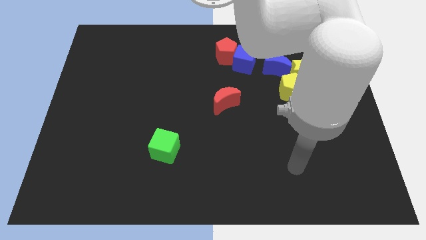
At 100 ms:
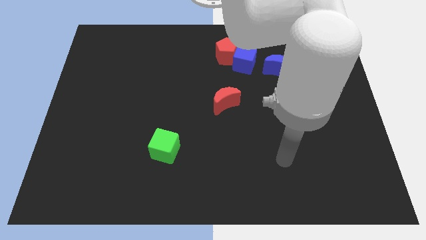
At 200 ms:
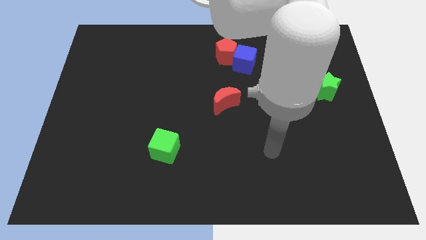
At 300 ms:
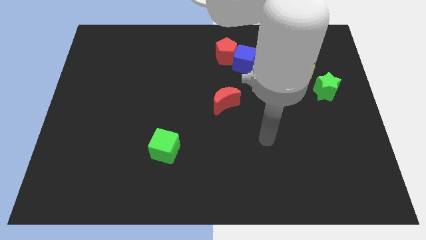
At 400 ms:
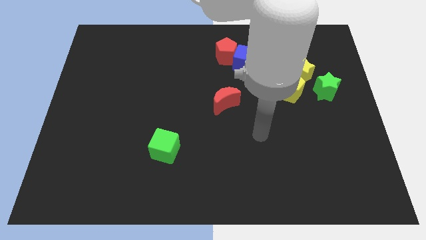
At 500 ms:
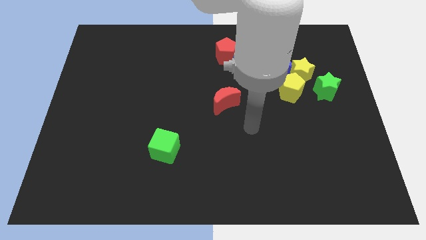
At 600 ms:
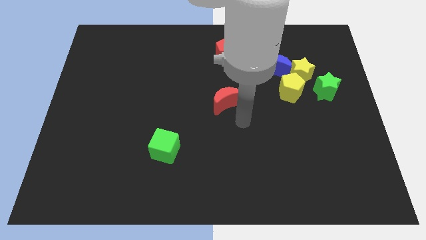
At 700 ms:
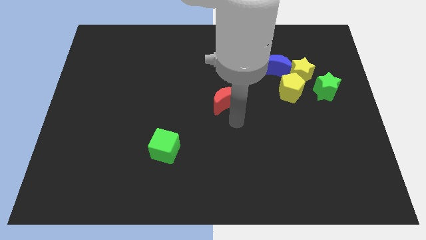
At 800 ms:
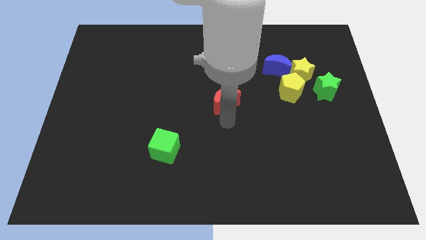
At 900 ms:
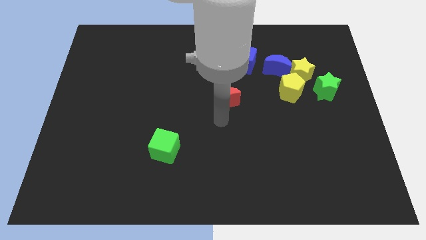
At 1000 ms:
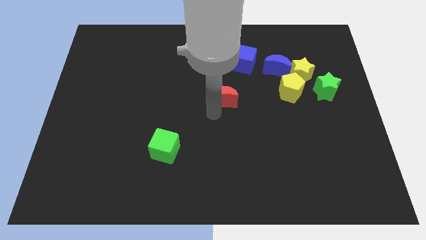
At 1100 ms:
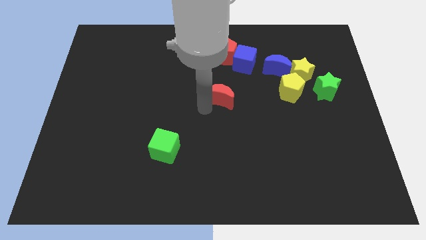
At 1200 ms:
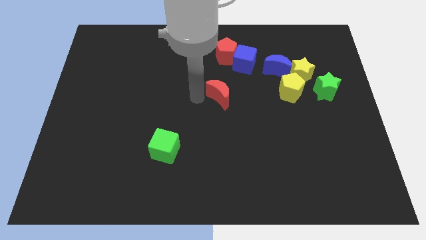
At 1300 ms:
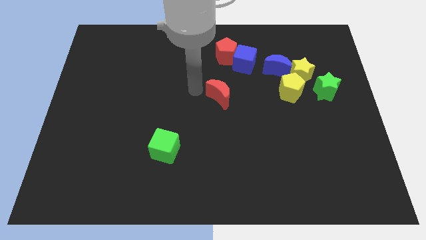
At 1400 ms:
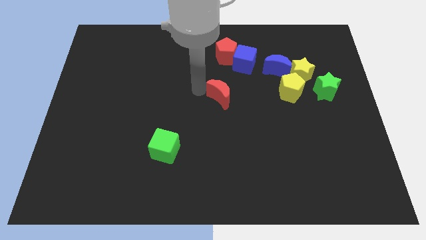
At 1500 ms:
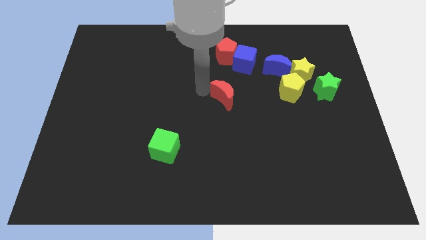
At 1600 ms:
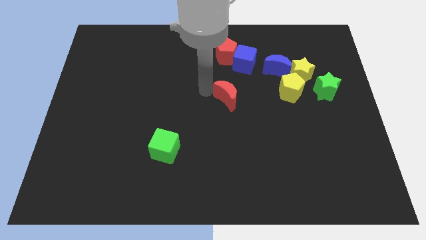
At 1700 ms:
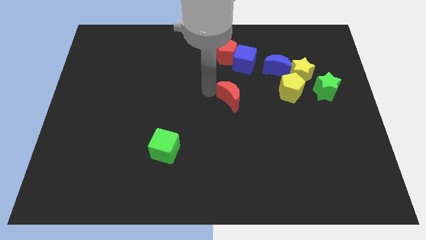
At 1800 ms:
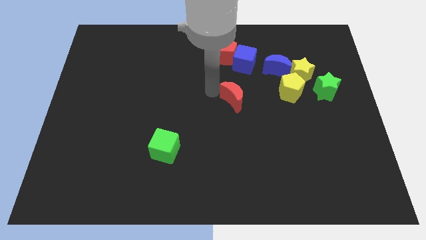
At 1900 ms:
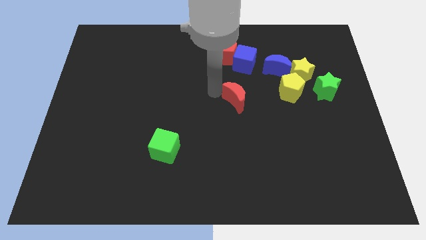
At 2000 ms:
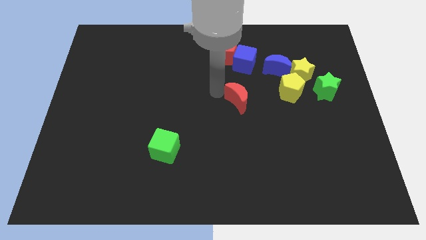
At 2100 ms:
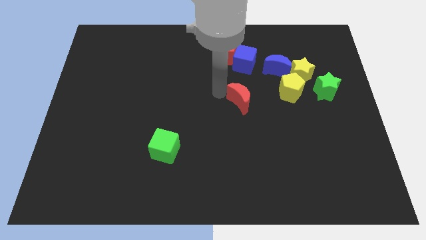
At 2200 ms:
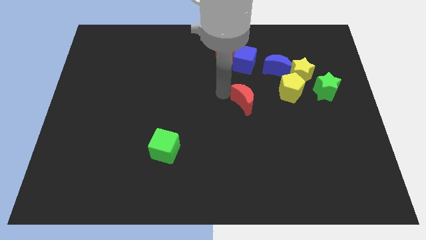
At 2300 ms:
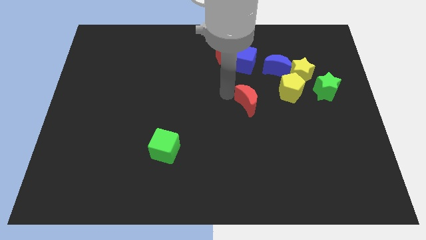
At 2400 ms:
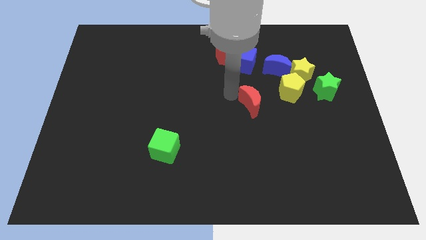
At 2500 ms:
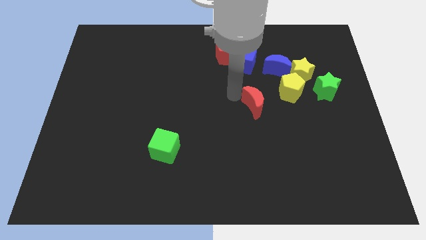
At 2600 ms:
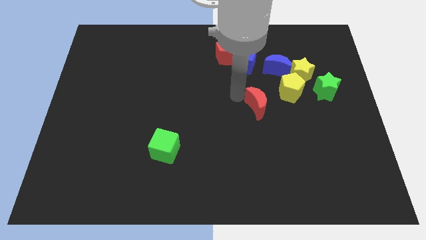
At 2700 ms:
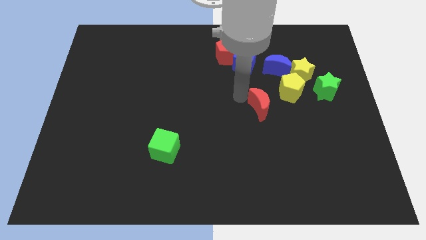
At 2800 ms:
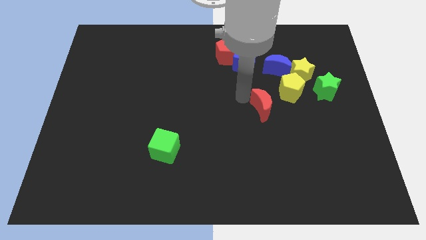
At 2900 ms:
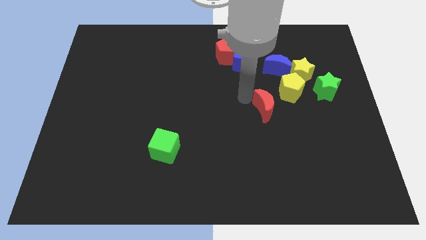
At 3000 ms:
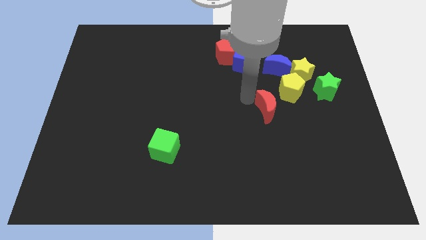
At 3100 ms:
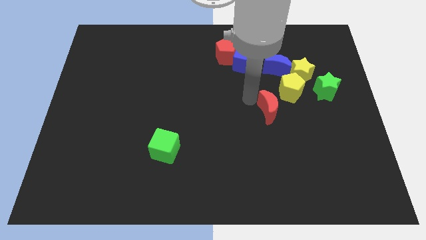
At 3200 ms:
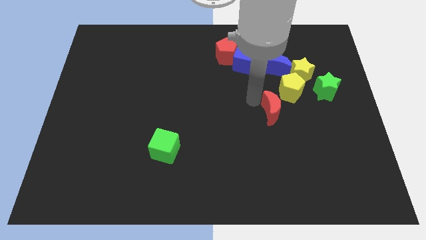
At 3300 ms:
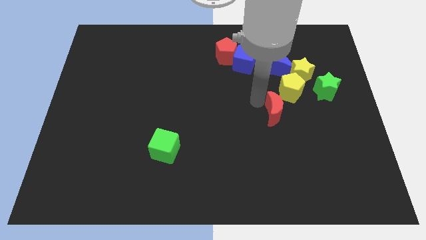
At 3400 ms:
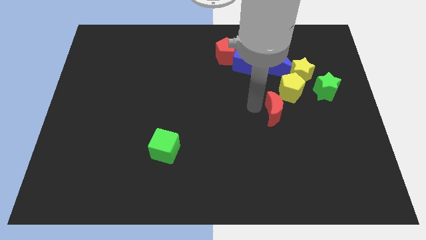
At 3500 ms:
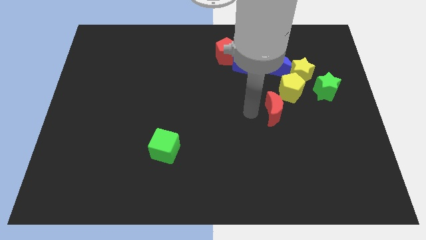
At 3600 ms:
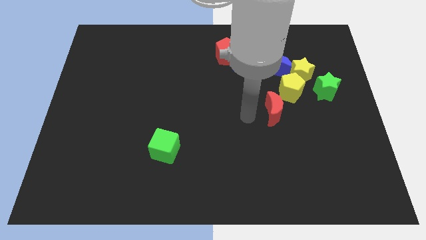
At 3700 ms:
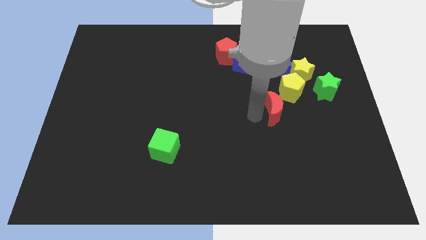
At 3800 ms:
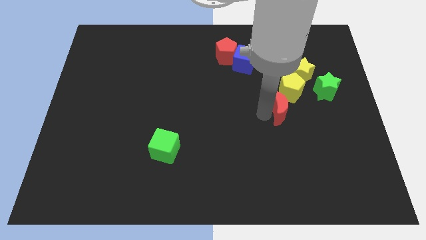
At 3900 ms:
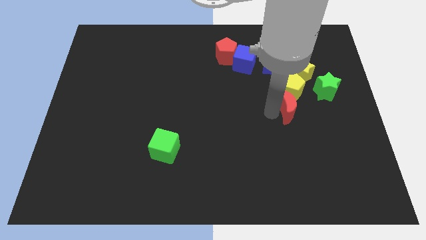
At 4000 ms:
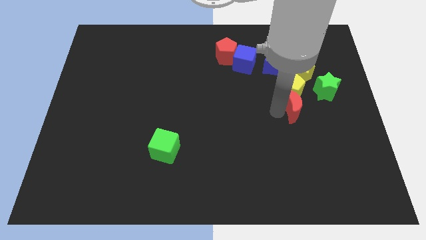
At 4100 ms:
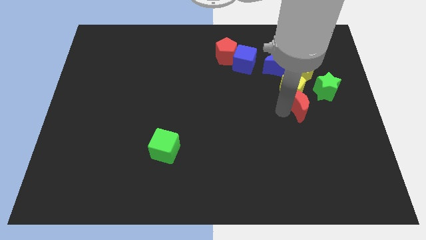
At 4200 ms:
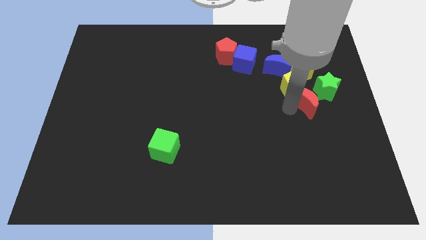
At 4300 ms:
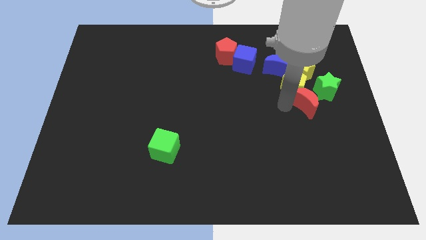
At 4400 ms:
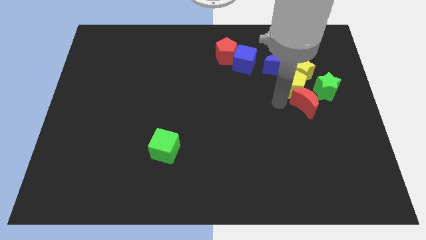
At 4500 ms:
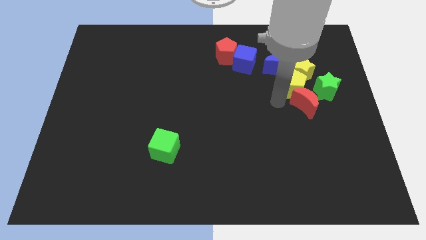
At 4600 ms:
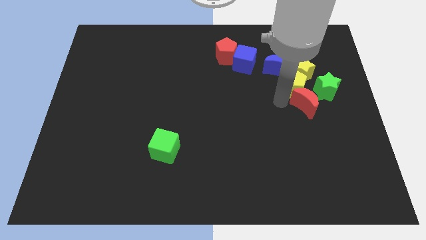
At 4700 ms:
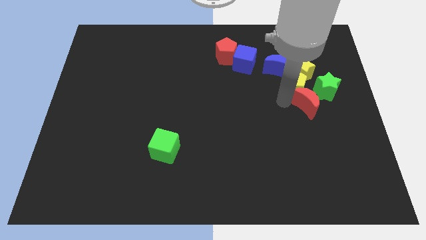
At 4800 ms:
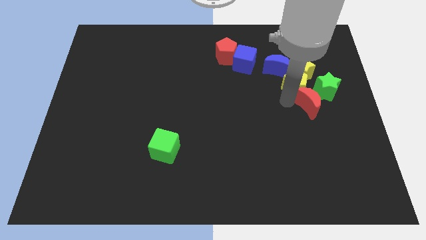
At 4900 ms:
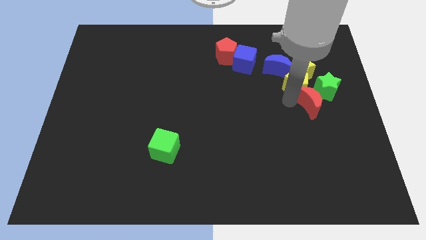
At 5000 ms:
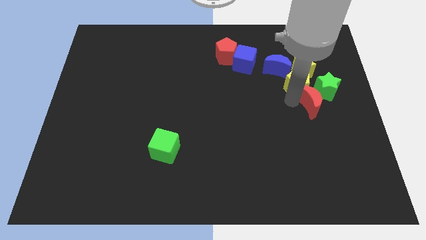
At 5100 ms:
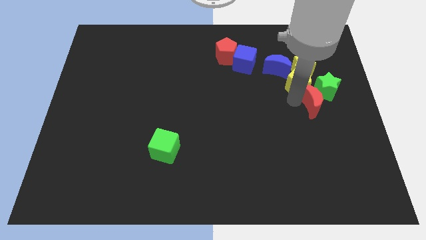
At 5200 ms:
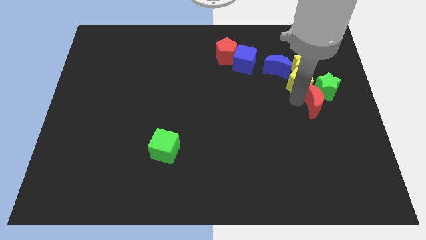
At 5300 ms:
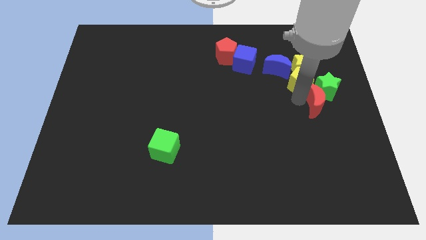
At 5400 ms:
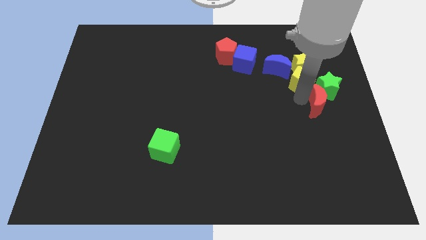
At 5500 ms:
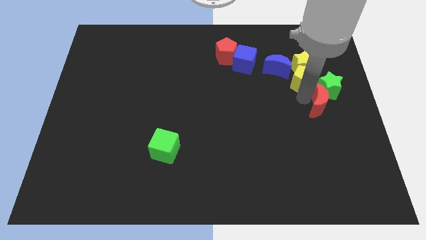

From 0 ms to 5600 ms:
put the red moon to the right side of the board

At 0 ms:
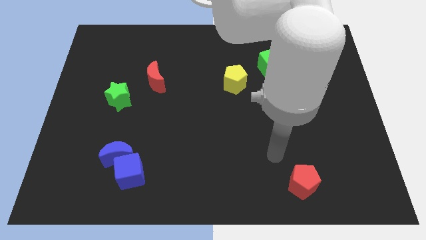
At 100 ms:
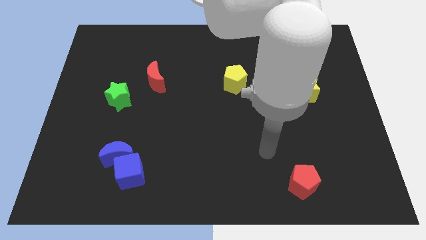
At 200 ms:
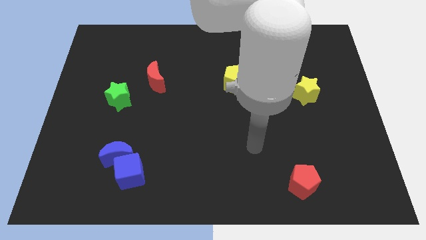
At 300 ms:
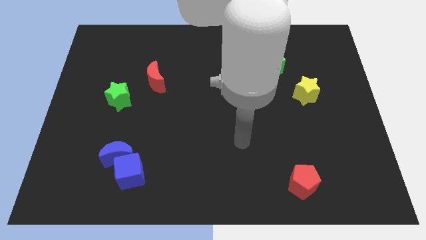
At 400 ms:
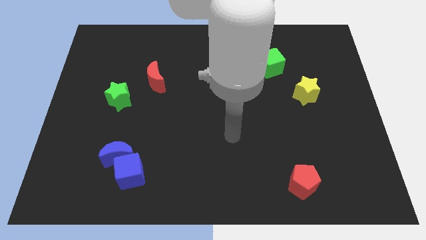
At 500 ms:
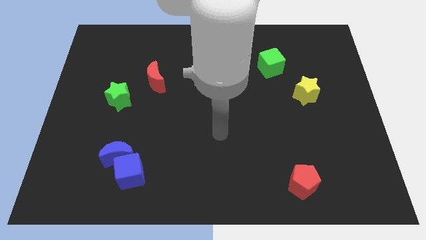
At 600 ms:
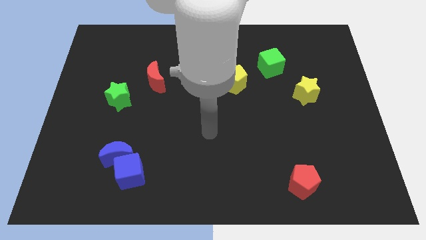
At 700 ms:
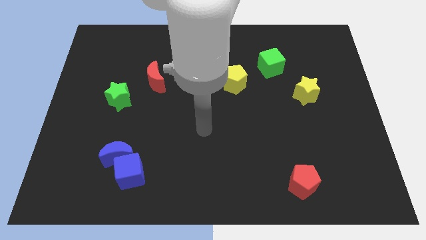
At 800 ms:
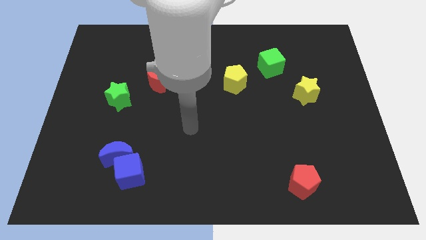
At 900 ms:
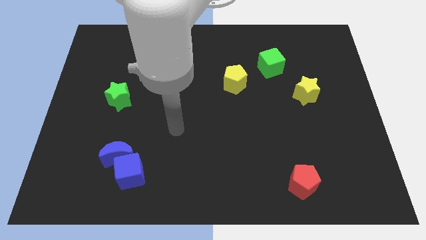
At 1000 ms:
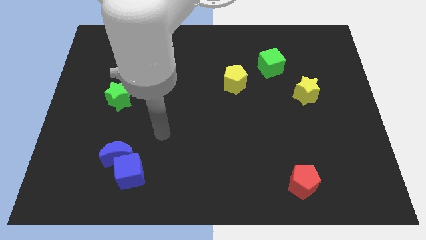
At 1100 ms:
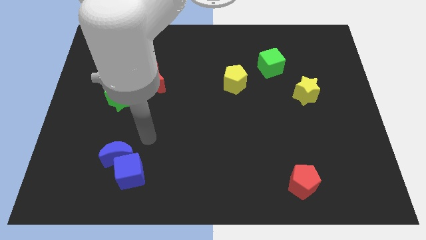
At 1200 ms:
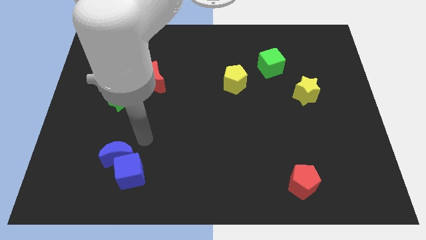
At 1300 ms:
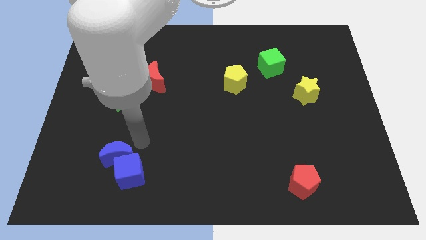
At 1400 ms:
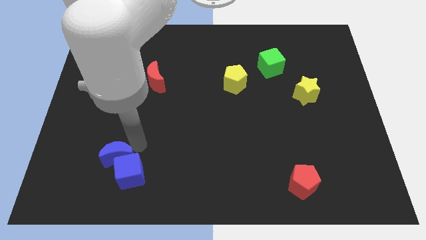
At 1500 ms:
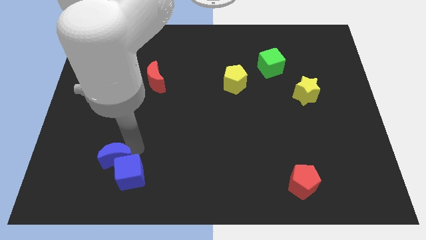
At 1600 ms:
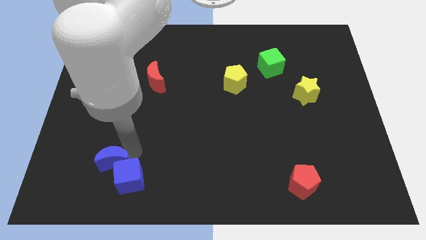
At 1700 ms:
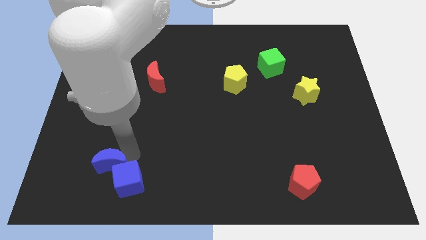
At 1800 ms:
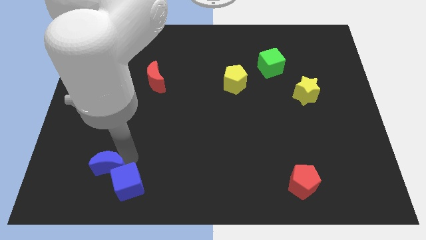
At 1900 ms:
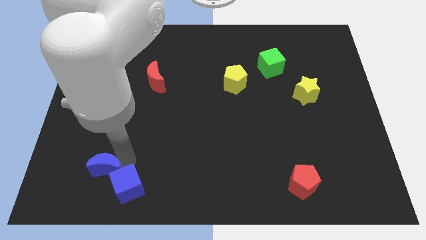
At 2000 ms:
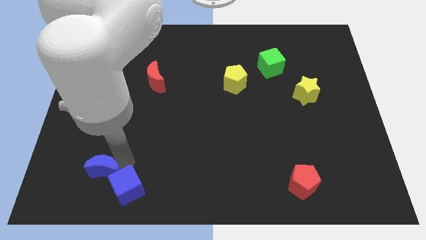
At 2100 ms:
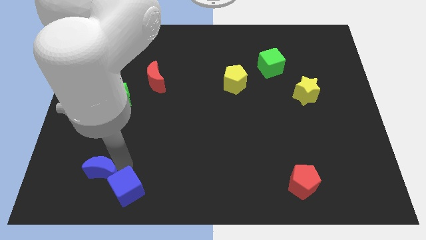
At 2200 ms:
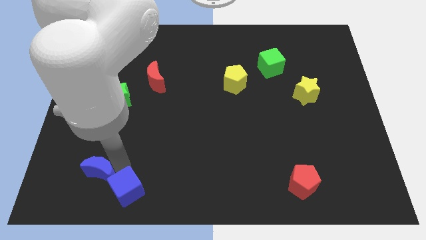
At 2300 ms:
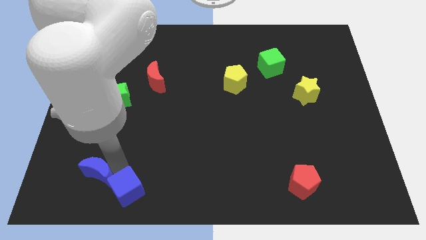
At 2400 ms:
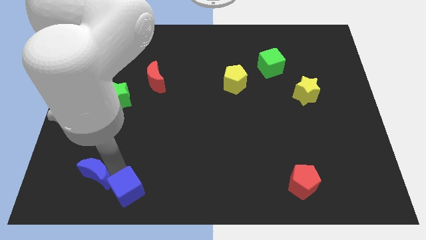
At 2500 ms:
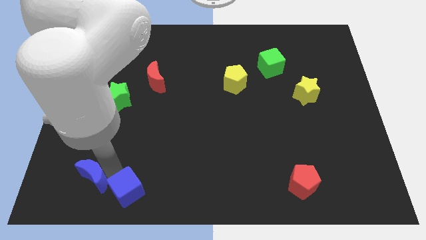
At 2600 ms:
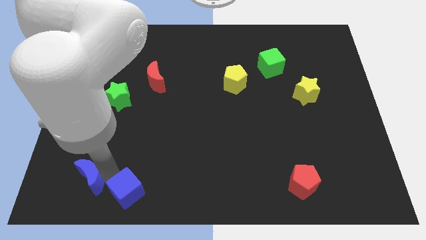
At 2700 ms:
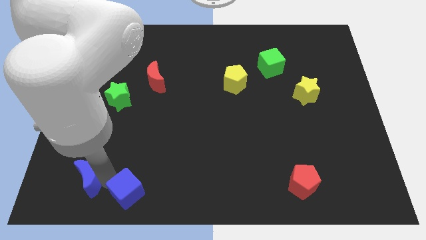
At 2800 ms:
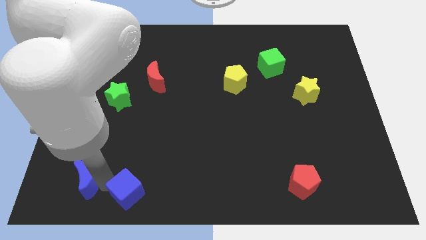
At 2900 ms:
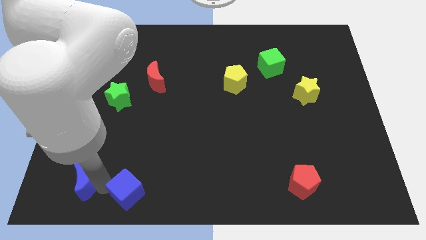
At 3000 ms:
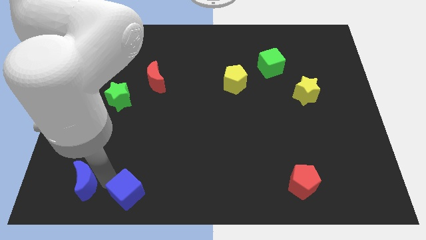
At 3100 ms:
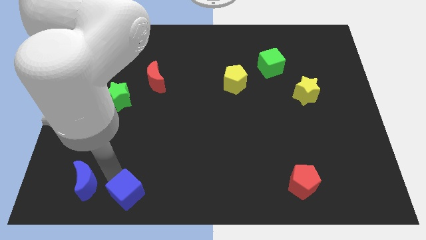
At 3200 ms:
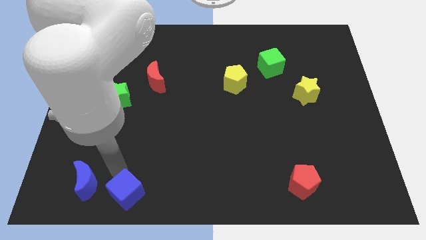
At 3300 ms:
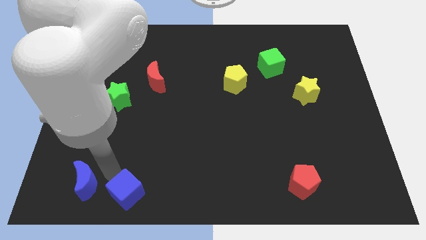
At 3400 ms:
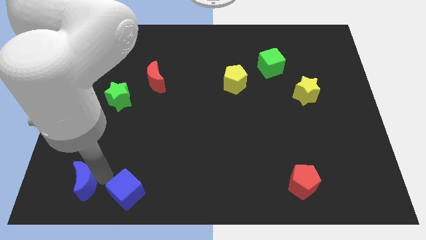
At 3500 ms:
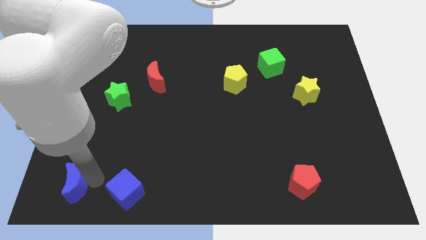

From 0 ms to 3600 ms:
put the blue moon to the bottom left of the board
